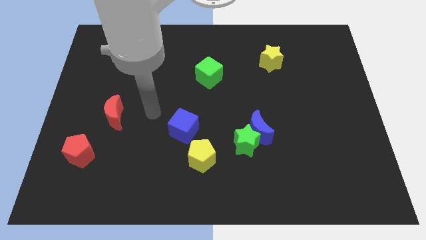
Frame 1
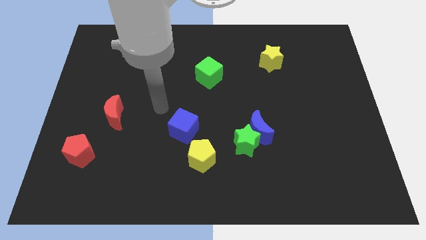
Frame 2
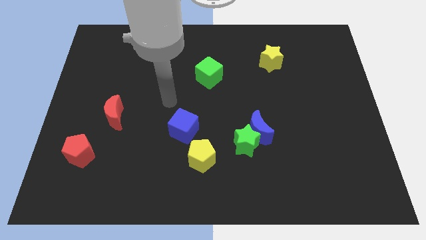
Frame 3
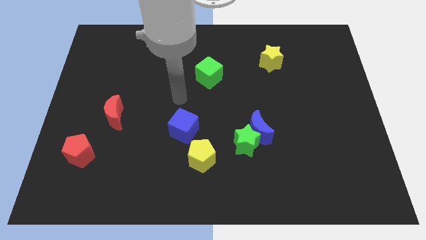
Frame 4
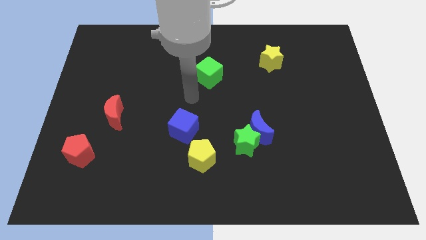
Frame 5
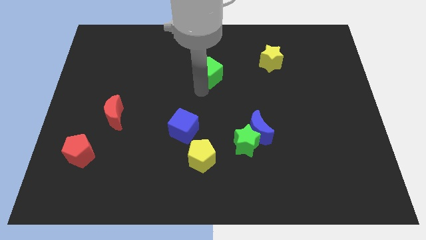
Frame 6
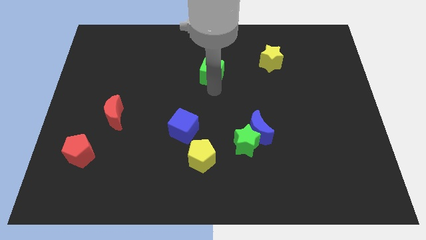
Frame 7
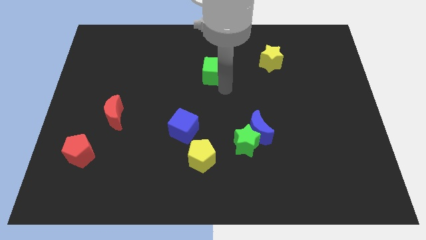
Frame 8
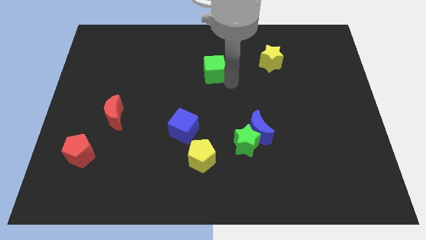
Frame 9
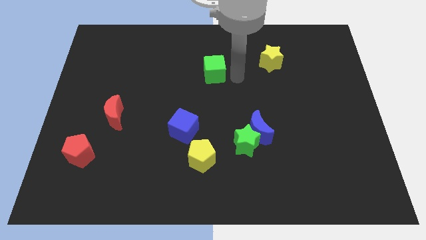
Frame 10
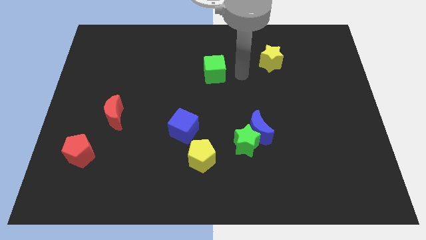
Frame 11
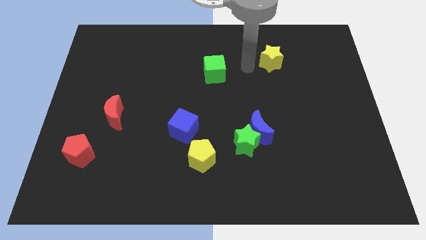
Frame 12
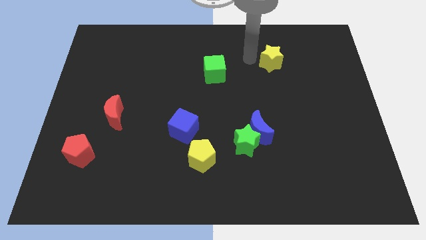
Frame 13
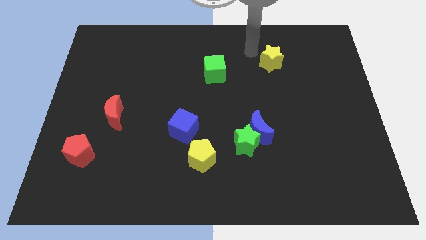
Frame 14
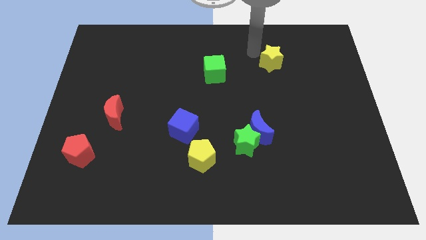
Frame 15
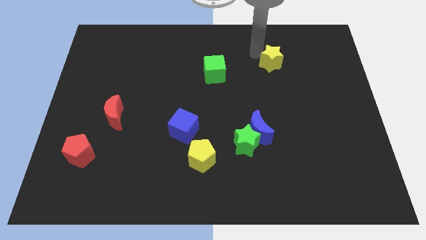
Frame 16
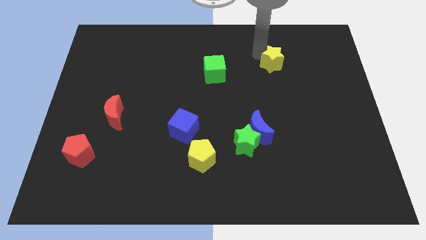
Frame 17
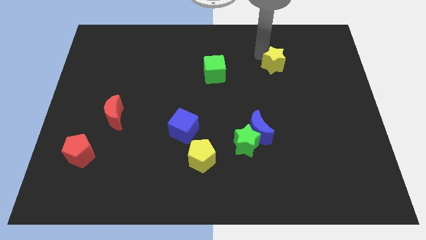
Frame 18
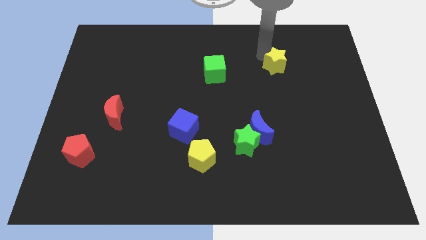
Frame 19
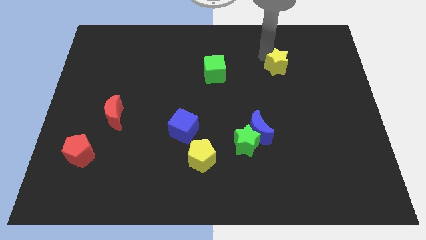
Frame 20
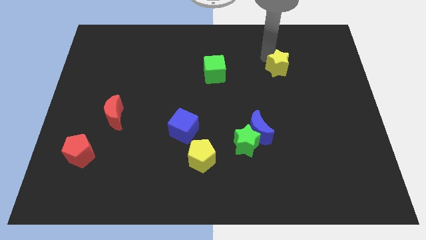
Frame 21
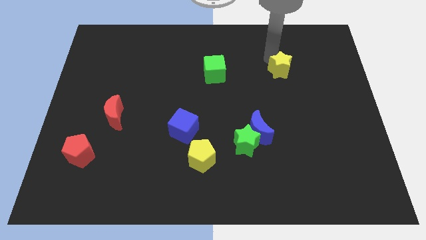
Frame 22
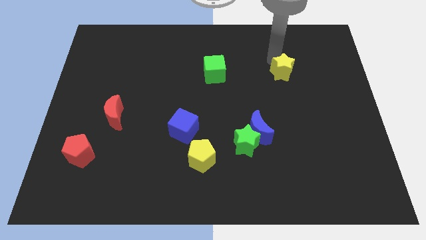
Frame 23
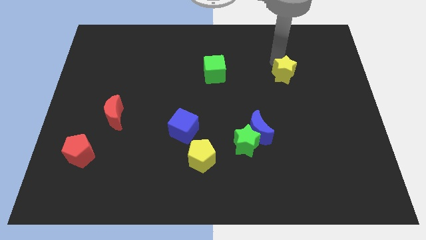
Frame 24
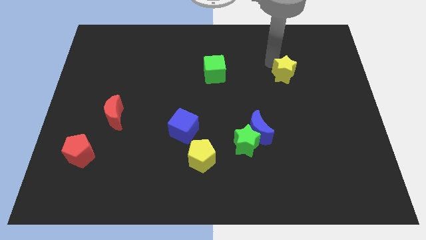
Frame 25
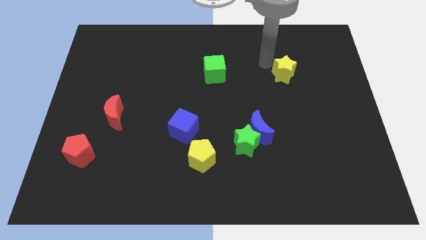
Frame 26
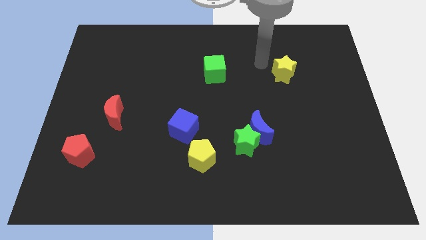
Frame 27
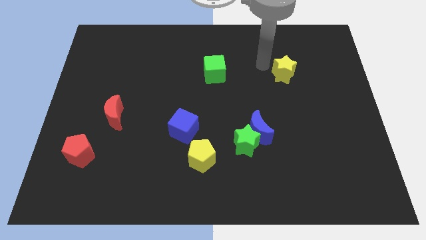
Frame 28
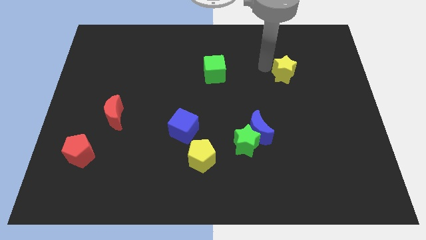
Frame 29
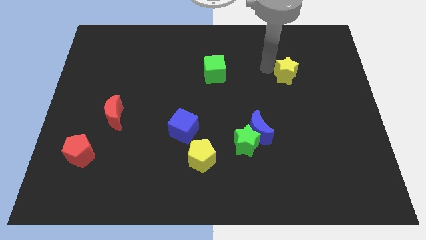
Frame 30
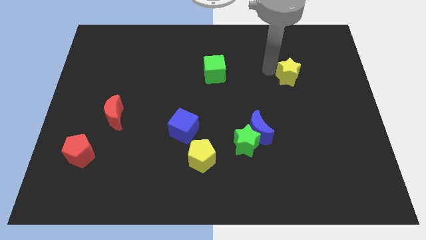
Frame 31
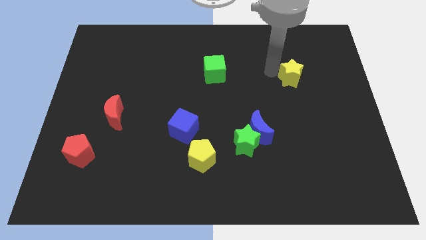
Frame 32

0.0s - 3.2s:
slide the yellow star a bit downwards and then right

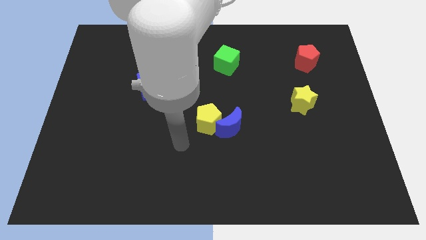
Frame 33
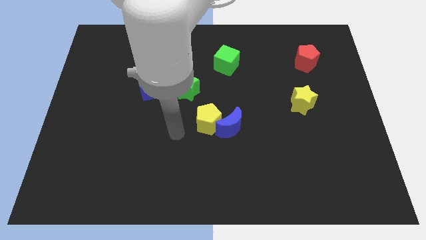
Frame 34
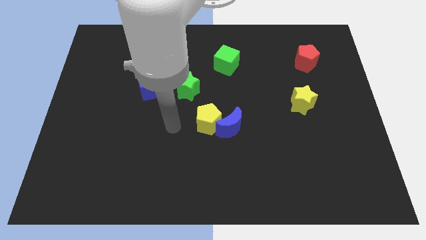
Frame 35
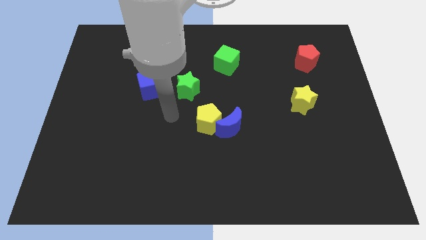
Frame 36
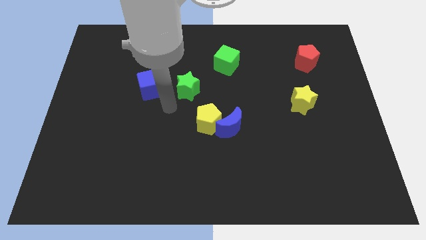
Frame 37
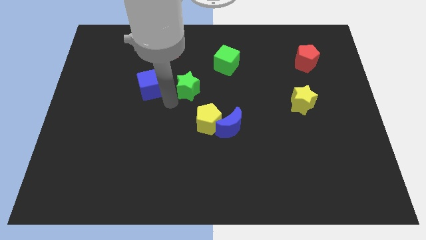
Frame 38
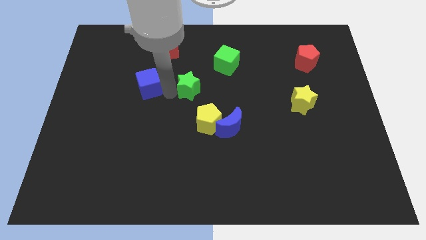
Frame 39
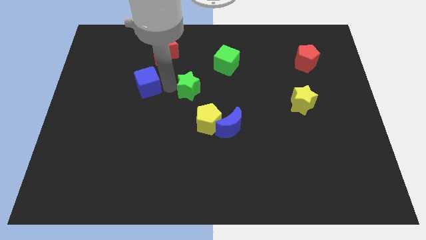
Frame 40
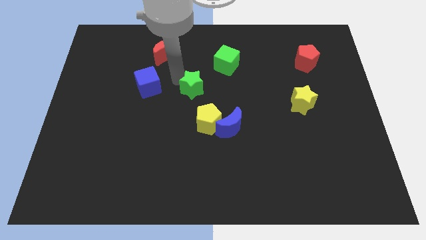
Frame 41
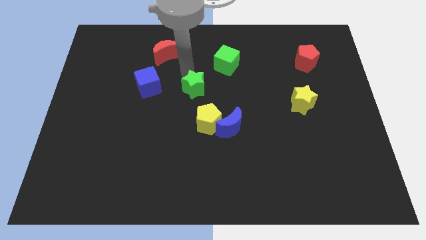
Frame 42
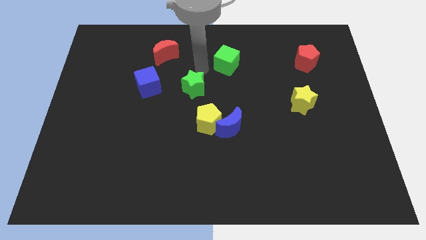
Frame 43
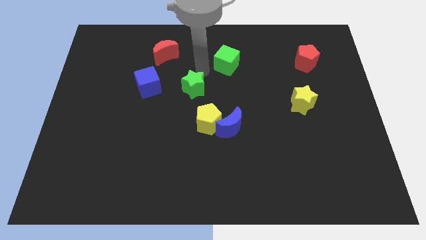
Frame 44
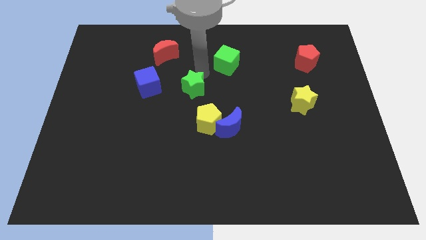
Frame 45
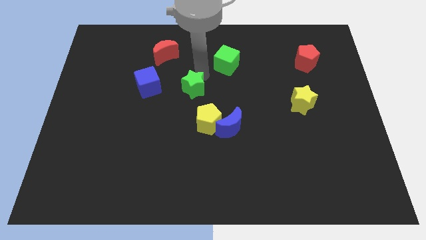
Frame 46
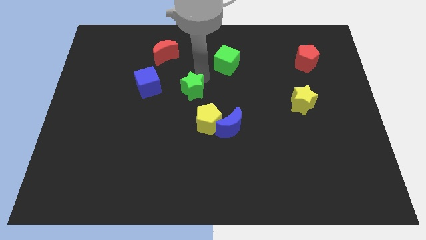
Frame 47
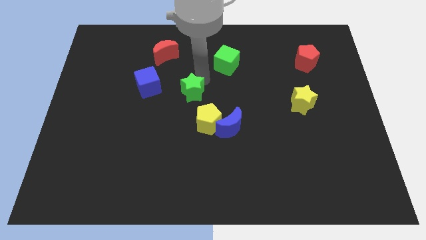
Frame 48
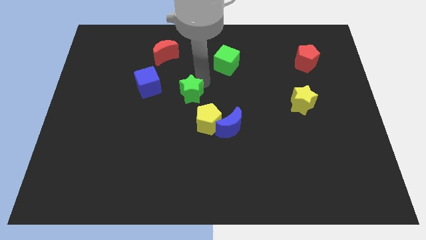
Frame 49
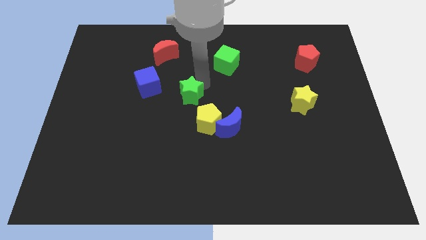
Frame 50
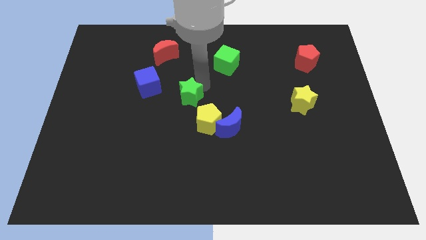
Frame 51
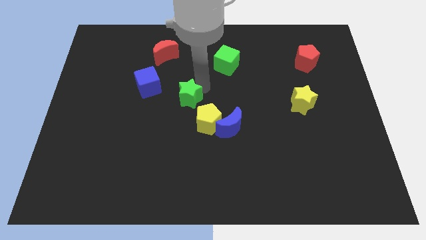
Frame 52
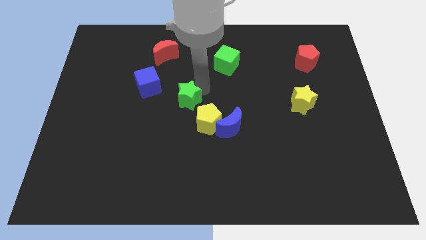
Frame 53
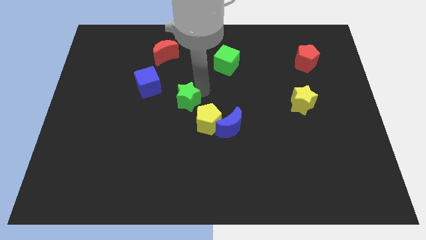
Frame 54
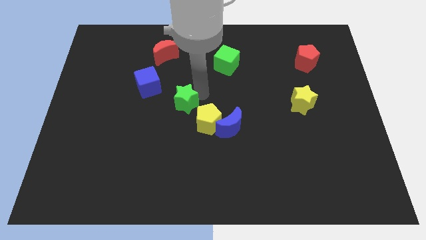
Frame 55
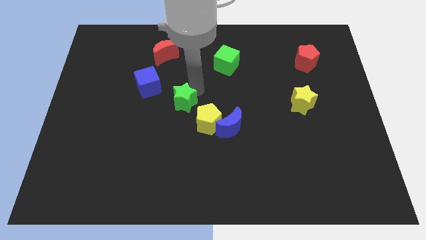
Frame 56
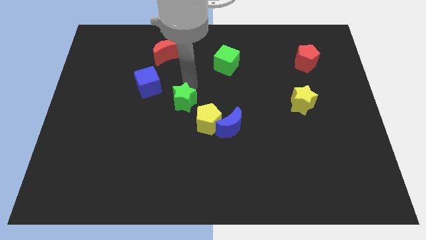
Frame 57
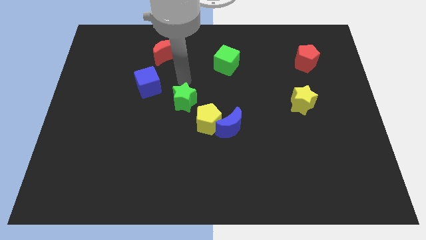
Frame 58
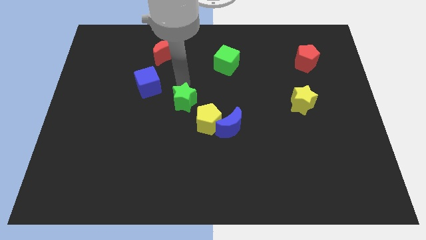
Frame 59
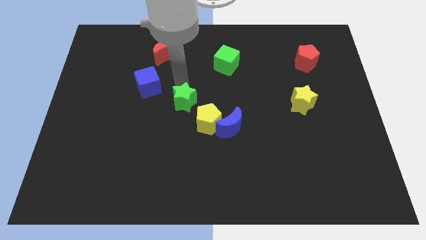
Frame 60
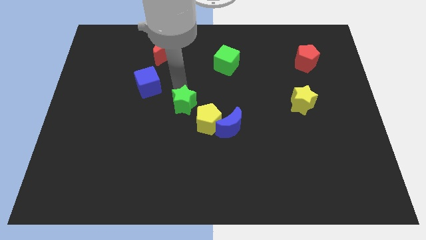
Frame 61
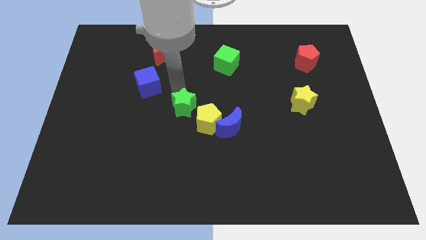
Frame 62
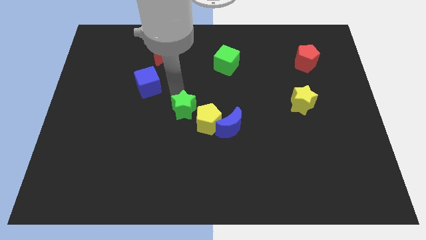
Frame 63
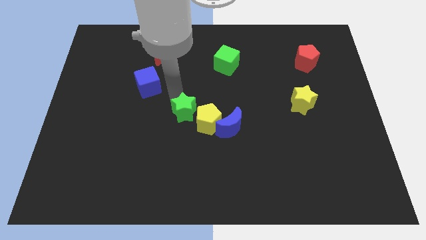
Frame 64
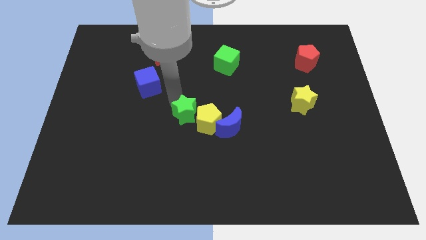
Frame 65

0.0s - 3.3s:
move the green star slightly downwards

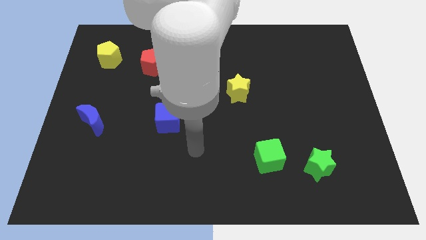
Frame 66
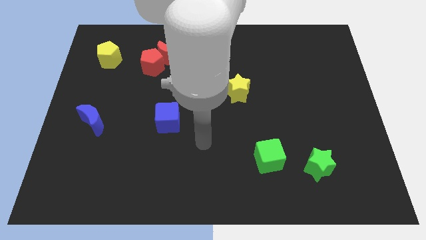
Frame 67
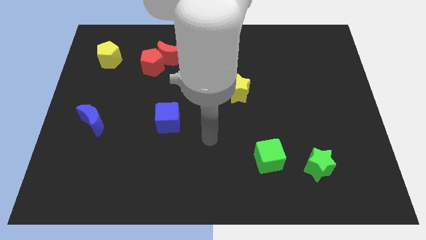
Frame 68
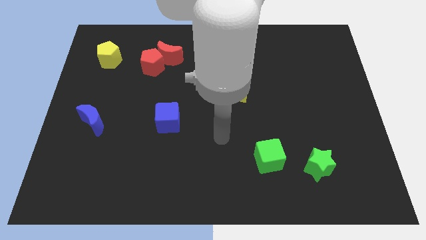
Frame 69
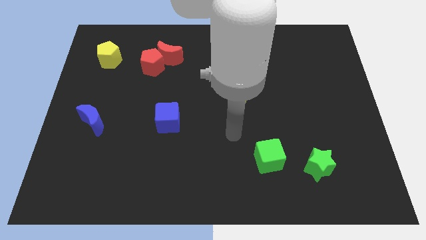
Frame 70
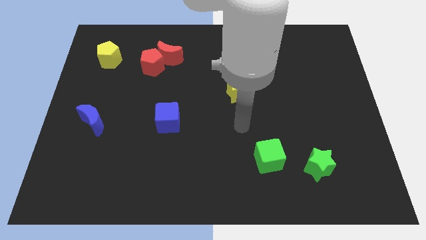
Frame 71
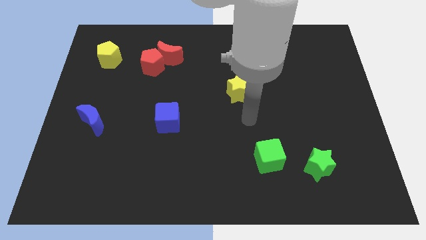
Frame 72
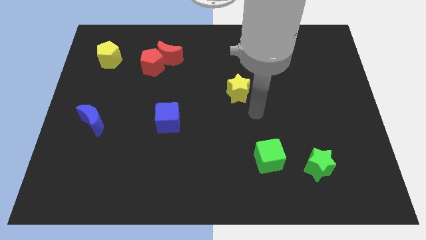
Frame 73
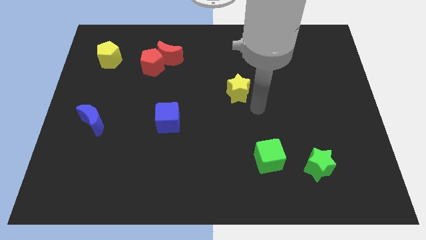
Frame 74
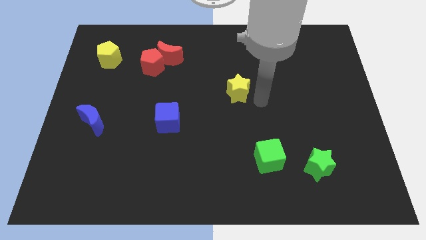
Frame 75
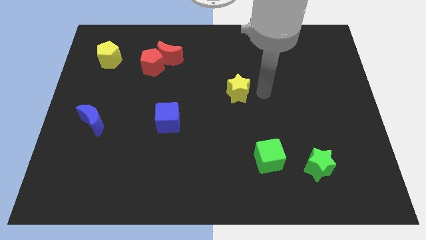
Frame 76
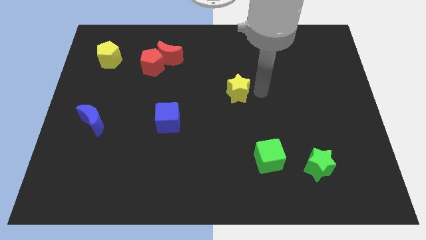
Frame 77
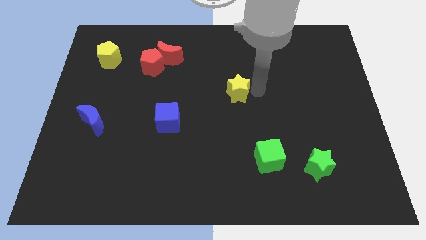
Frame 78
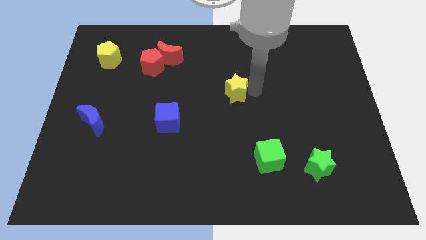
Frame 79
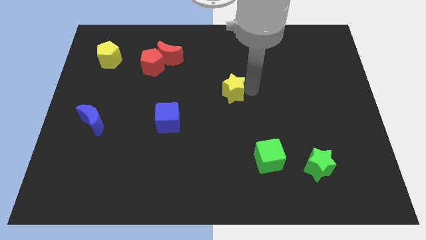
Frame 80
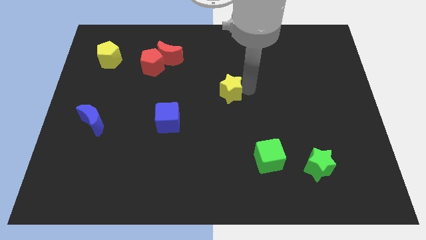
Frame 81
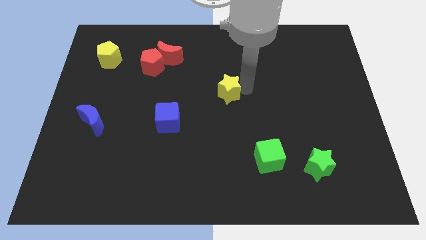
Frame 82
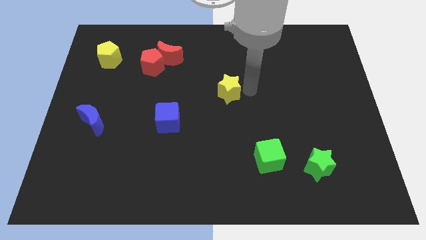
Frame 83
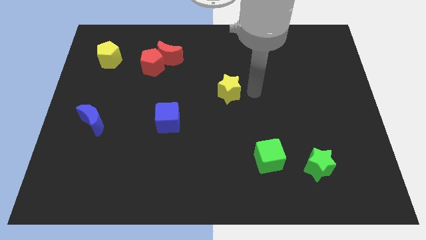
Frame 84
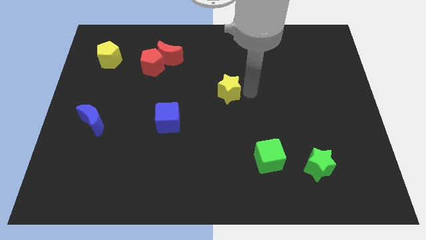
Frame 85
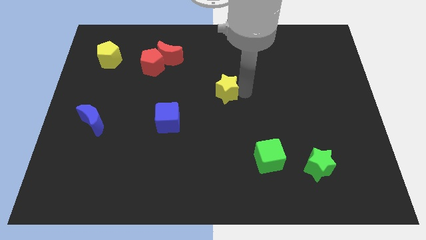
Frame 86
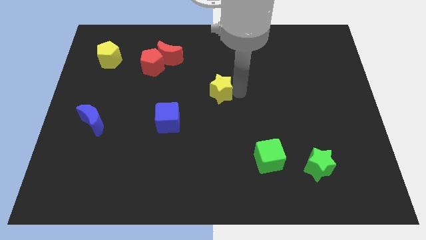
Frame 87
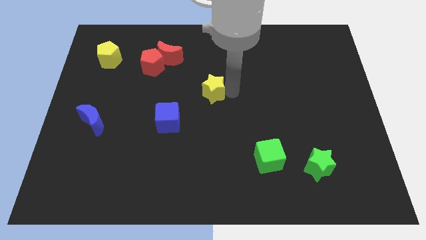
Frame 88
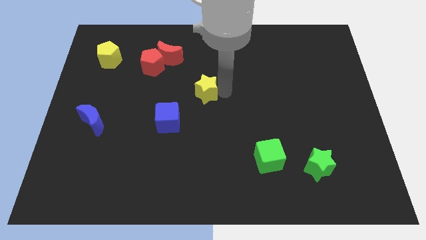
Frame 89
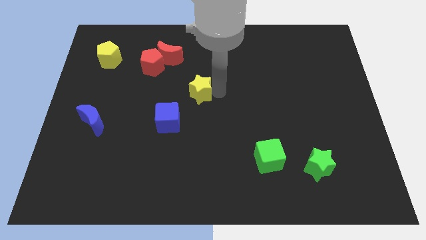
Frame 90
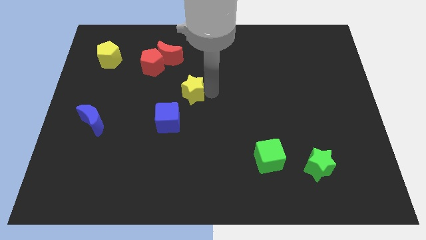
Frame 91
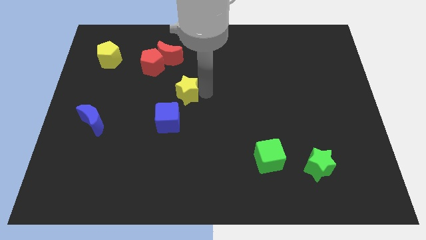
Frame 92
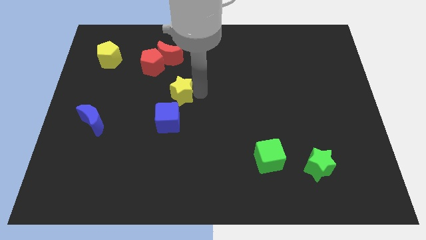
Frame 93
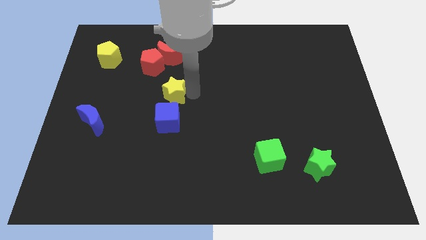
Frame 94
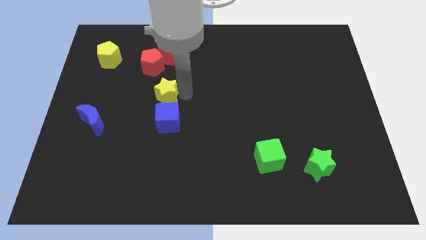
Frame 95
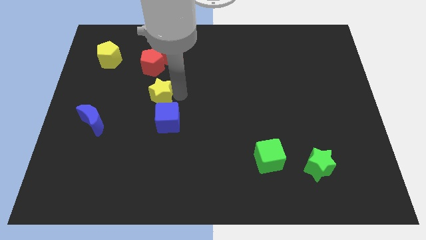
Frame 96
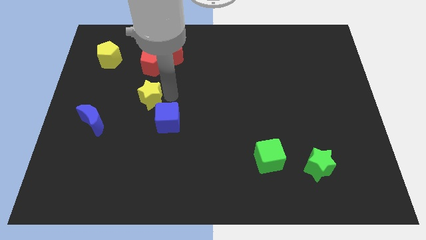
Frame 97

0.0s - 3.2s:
move the yellow star to the left
